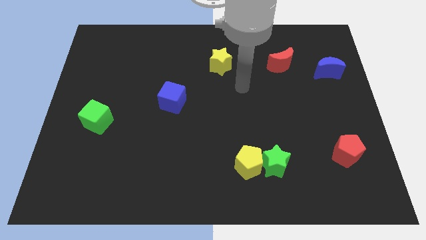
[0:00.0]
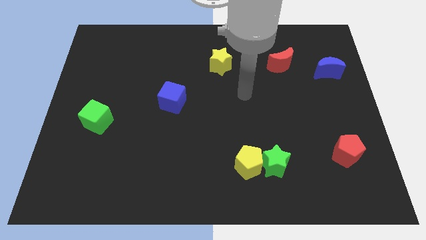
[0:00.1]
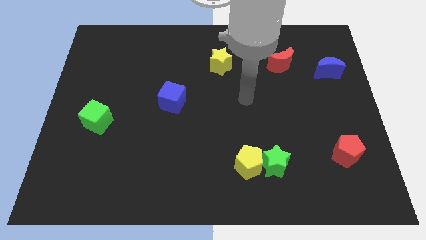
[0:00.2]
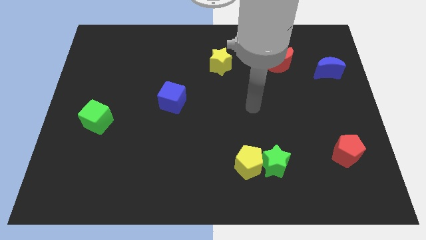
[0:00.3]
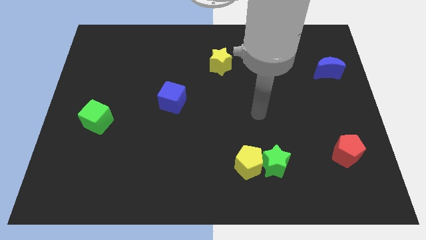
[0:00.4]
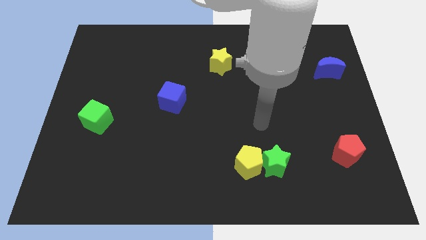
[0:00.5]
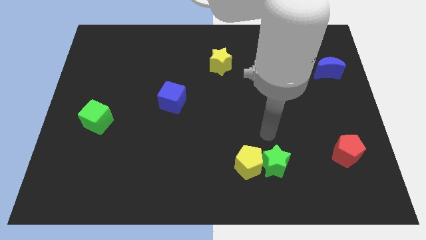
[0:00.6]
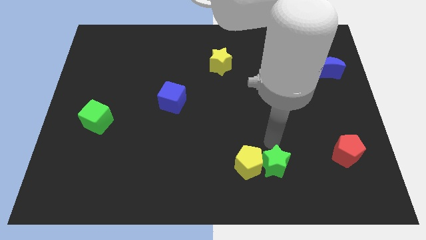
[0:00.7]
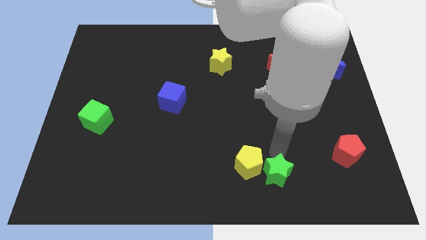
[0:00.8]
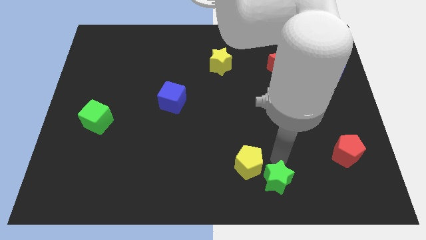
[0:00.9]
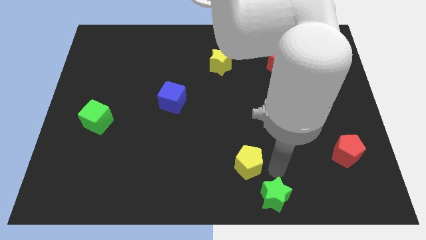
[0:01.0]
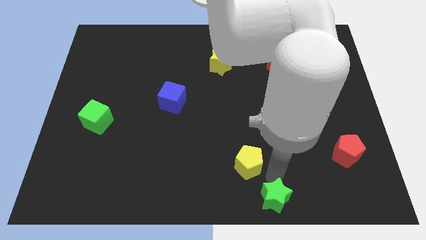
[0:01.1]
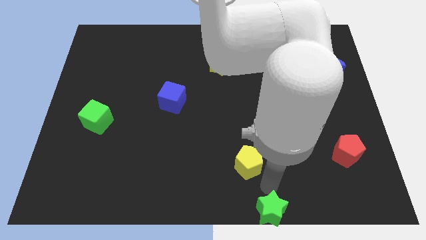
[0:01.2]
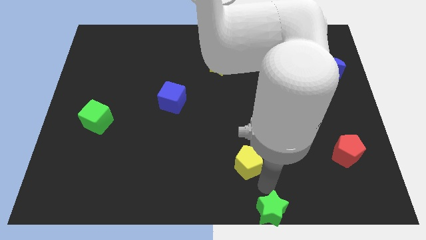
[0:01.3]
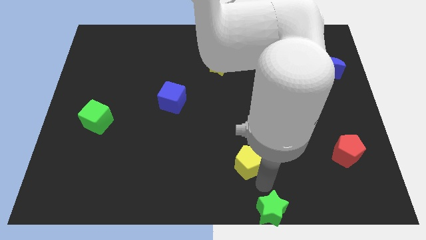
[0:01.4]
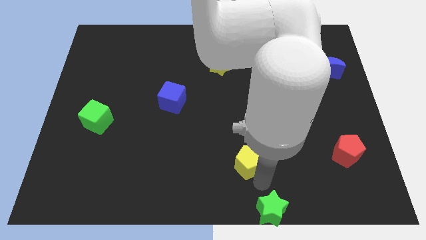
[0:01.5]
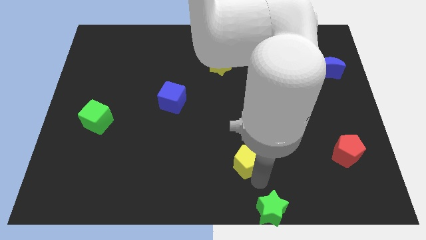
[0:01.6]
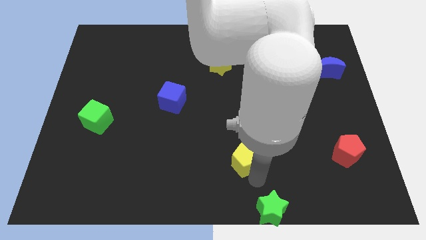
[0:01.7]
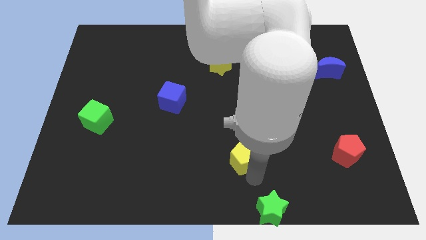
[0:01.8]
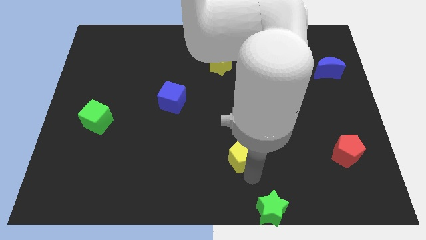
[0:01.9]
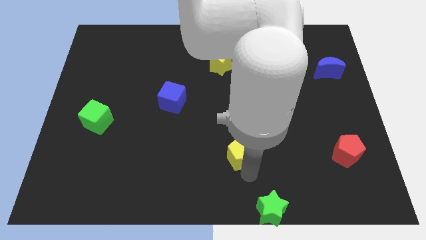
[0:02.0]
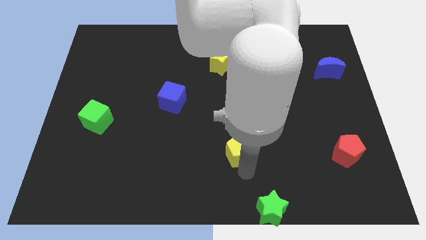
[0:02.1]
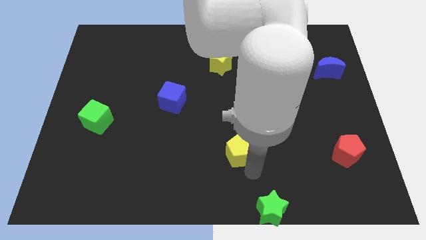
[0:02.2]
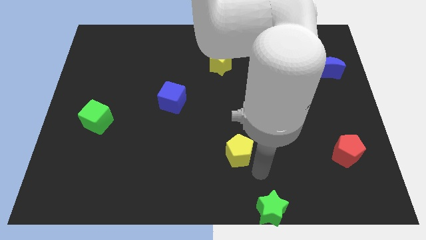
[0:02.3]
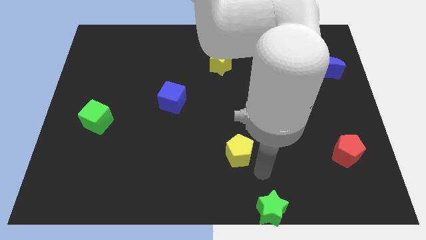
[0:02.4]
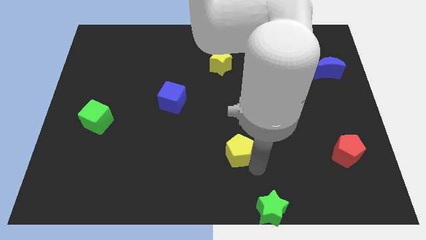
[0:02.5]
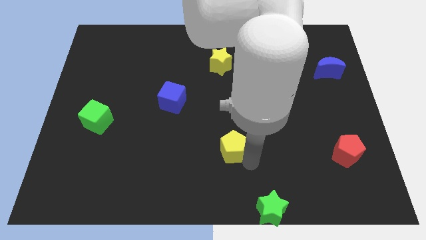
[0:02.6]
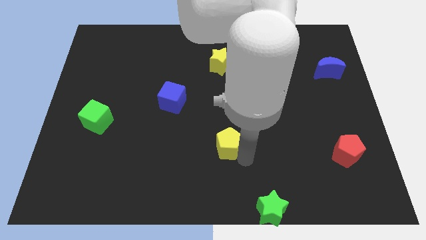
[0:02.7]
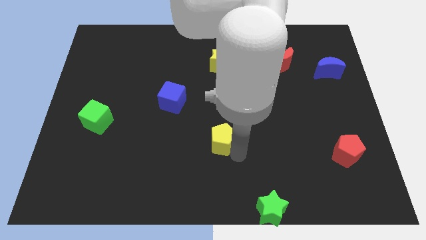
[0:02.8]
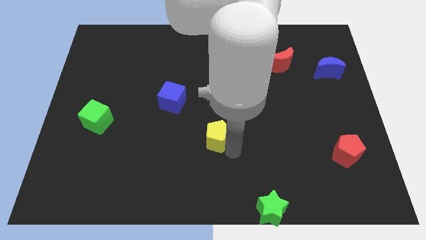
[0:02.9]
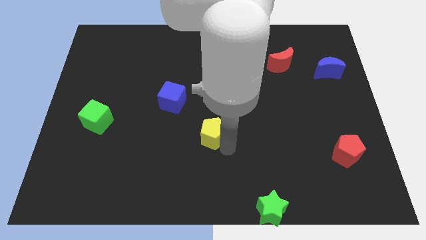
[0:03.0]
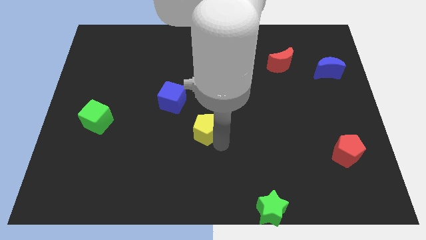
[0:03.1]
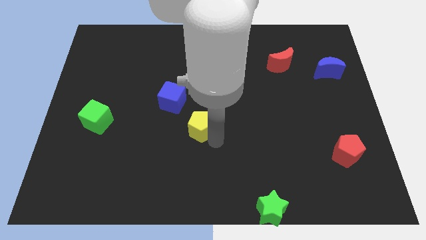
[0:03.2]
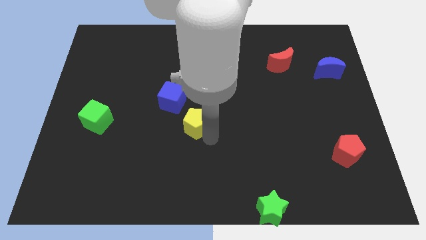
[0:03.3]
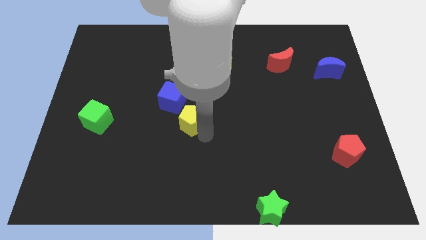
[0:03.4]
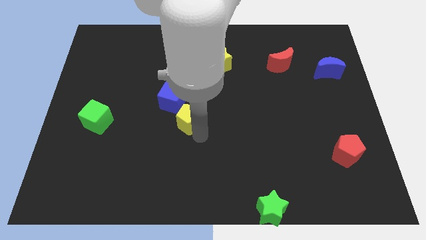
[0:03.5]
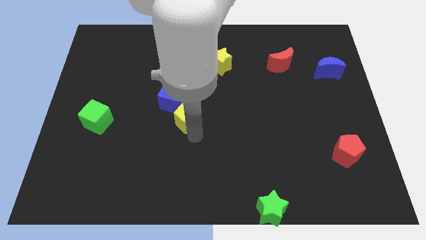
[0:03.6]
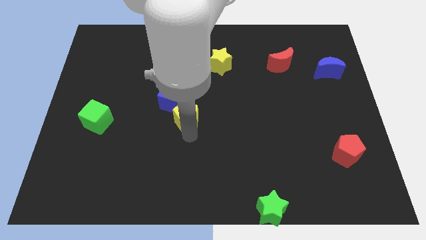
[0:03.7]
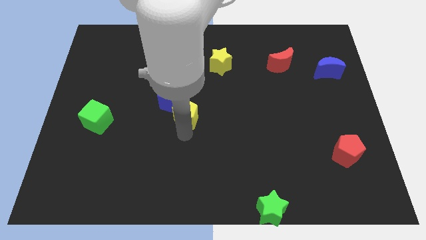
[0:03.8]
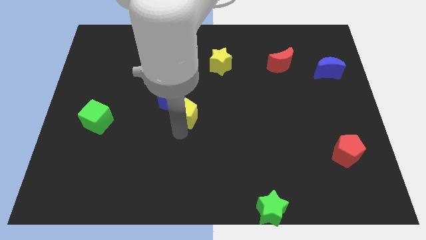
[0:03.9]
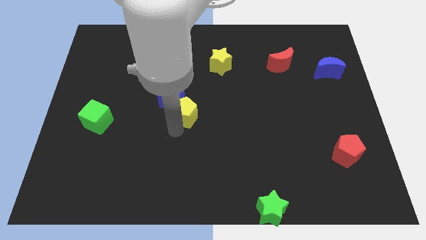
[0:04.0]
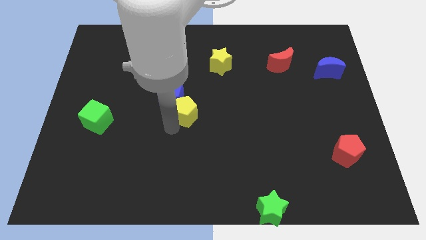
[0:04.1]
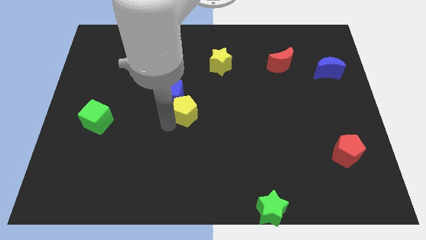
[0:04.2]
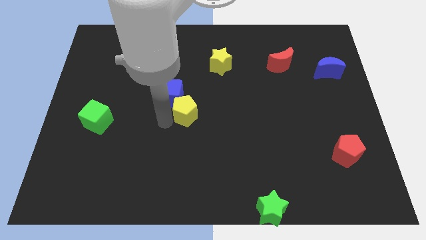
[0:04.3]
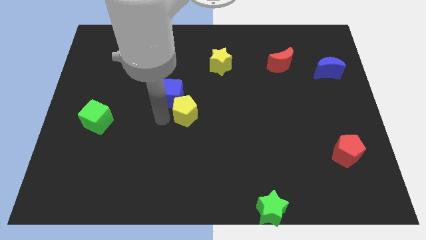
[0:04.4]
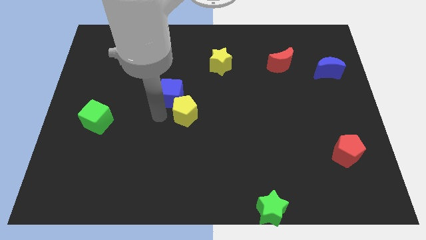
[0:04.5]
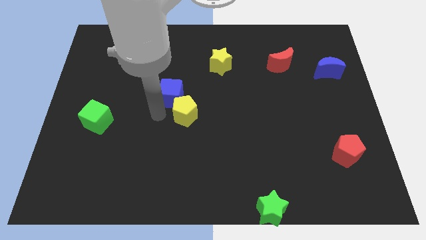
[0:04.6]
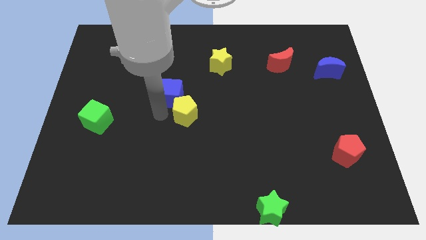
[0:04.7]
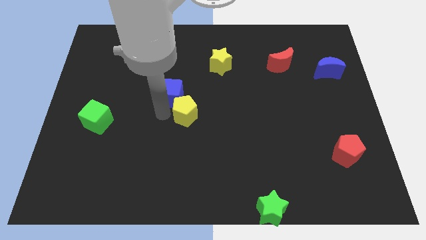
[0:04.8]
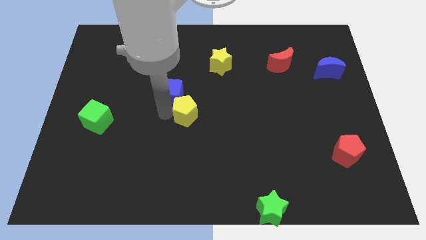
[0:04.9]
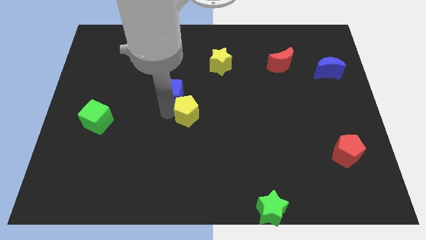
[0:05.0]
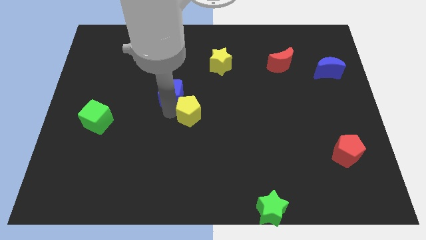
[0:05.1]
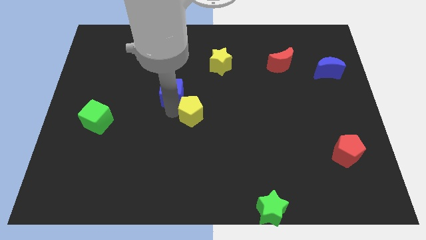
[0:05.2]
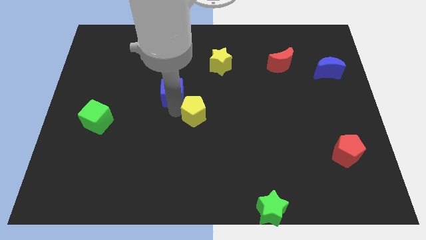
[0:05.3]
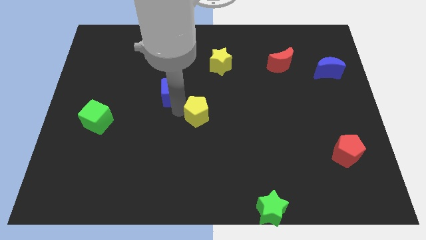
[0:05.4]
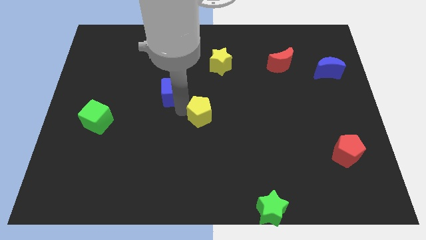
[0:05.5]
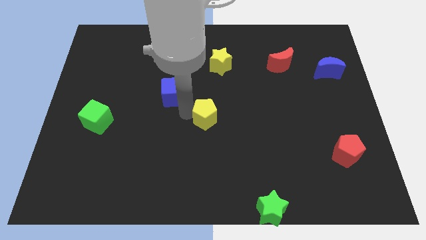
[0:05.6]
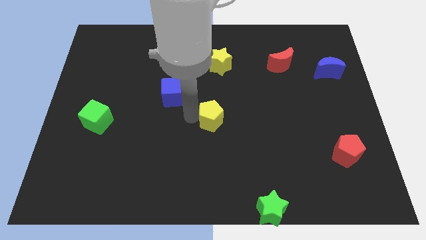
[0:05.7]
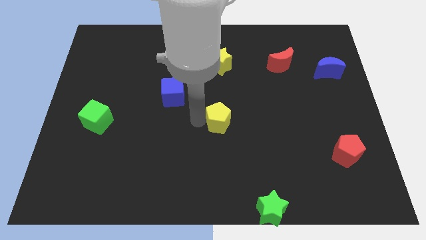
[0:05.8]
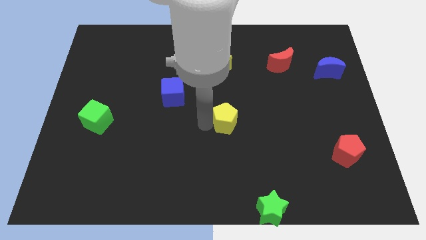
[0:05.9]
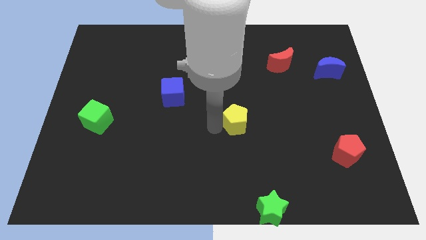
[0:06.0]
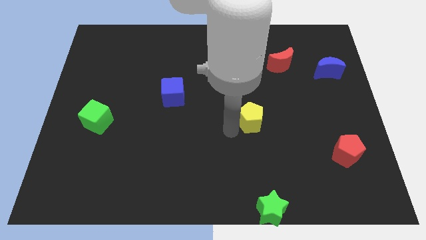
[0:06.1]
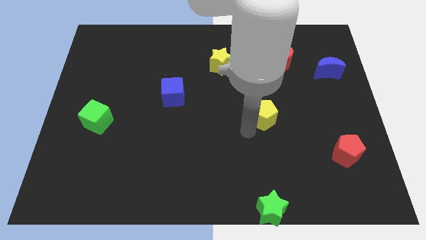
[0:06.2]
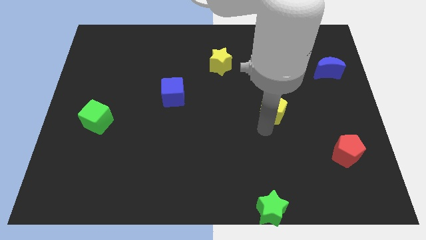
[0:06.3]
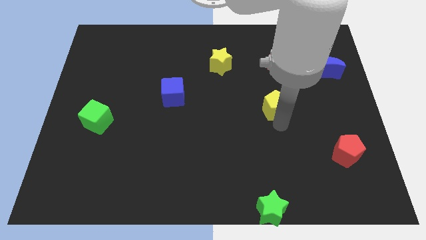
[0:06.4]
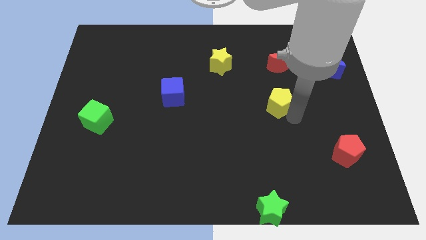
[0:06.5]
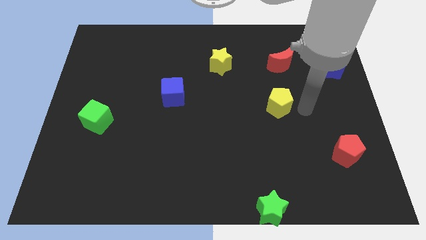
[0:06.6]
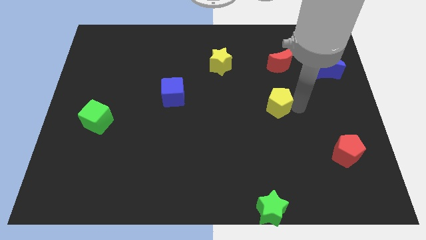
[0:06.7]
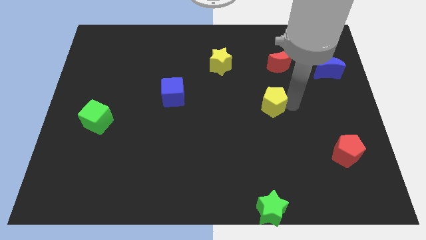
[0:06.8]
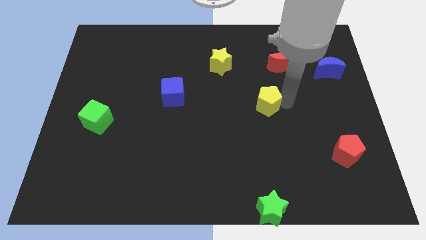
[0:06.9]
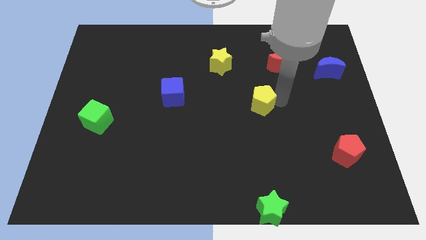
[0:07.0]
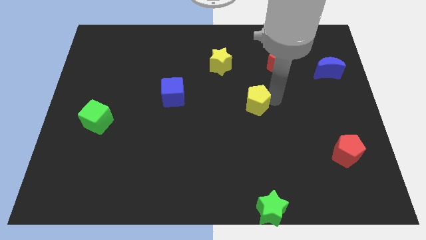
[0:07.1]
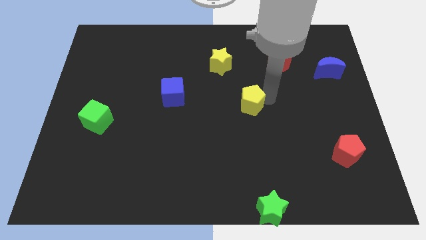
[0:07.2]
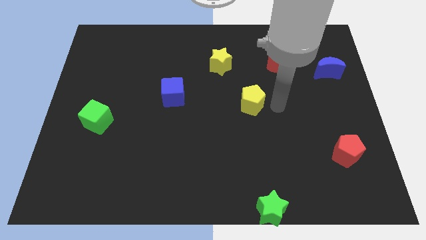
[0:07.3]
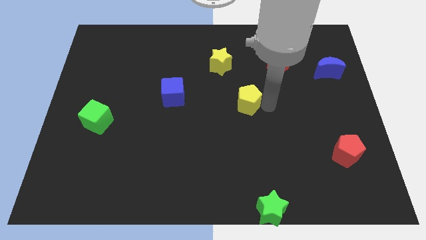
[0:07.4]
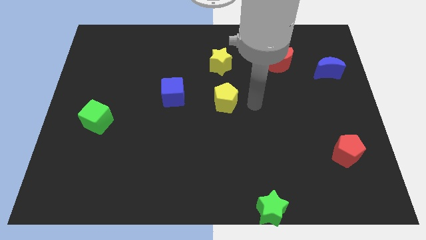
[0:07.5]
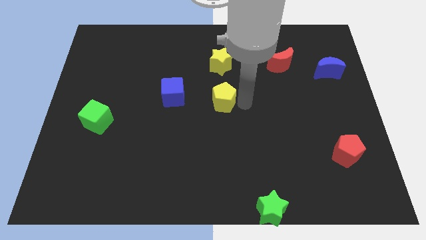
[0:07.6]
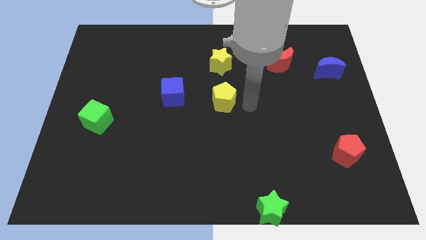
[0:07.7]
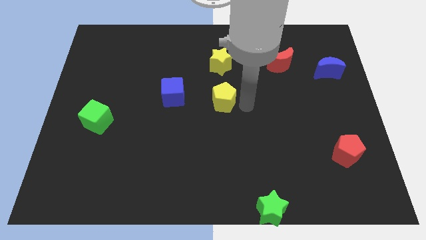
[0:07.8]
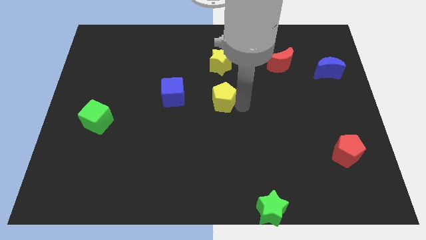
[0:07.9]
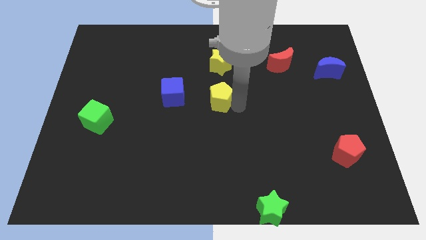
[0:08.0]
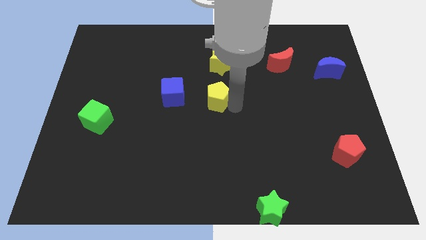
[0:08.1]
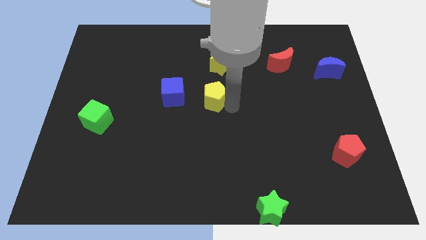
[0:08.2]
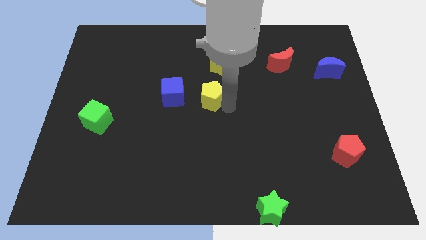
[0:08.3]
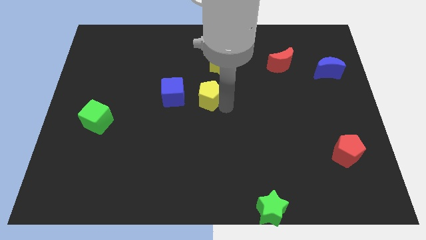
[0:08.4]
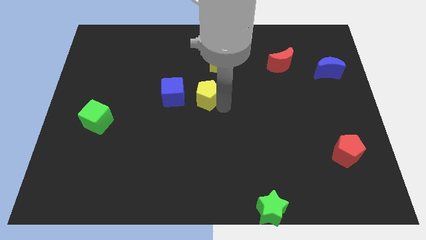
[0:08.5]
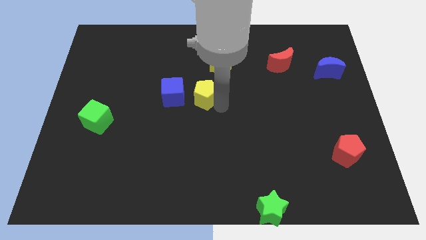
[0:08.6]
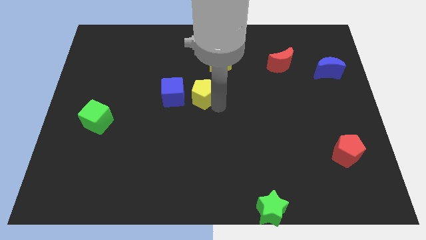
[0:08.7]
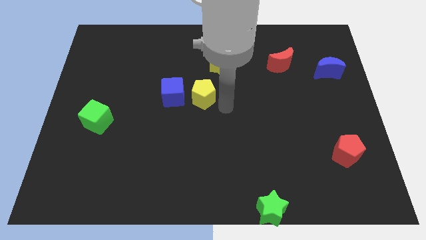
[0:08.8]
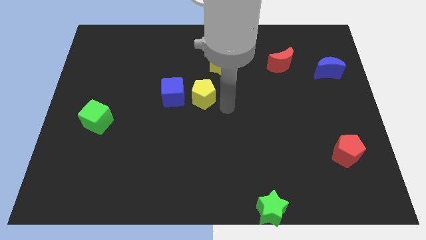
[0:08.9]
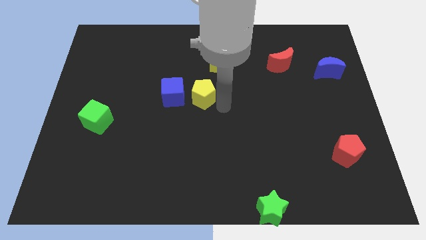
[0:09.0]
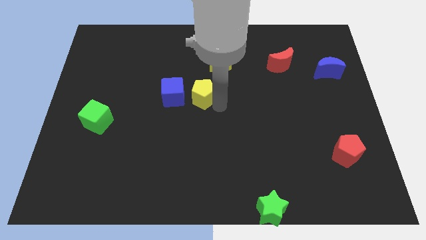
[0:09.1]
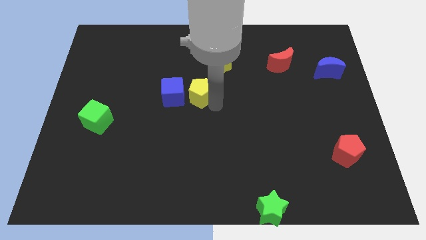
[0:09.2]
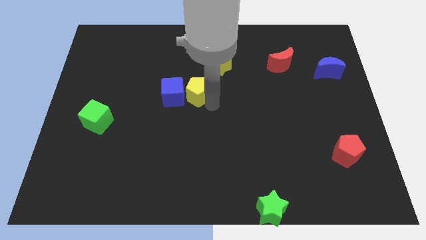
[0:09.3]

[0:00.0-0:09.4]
move the yellow pentagon upwards and then to the left
